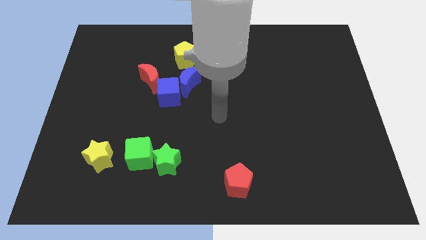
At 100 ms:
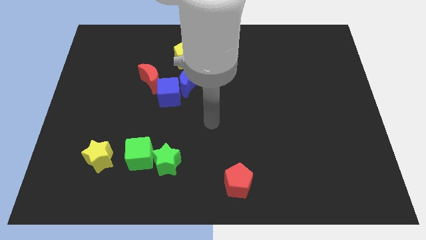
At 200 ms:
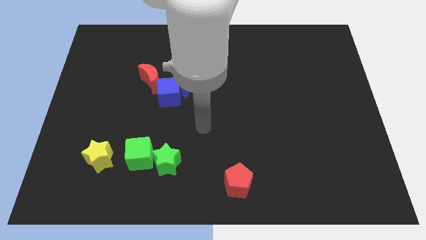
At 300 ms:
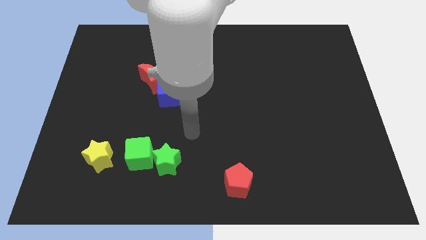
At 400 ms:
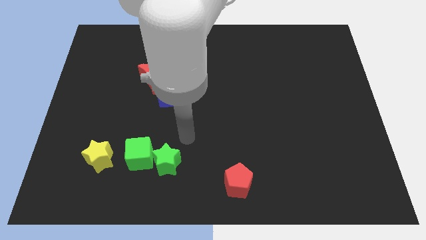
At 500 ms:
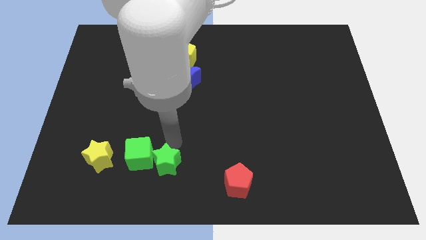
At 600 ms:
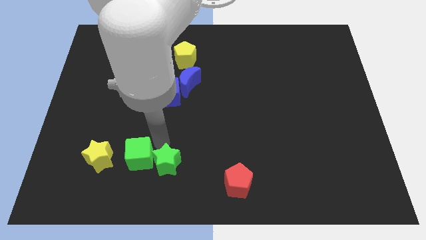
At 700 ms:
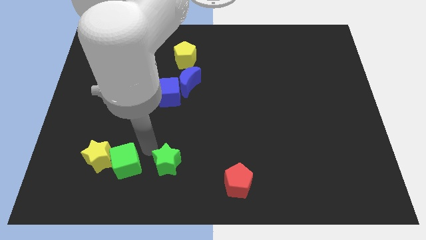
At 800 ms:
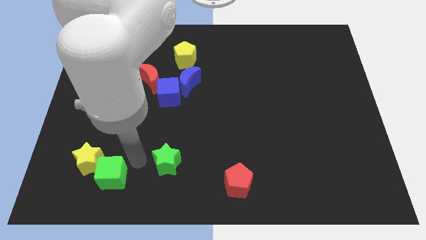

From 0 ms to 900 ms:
move the green star away from the green cube

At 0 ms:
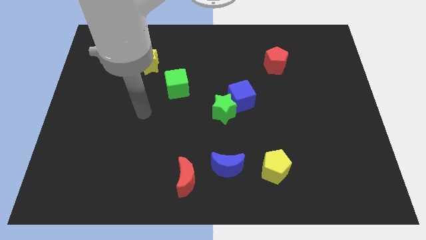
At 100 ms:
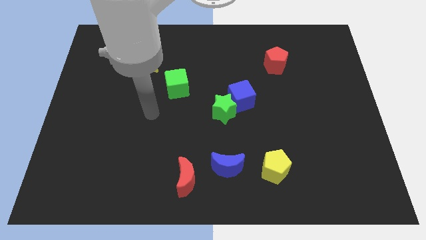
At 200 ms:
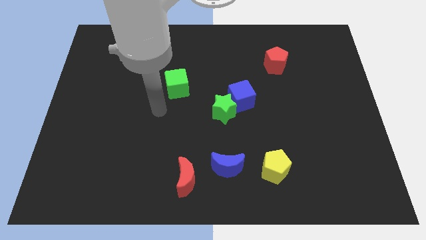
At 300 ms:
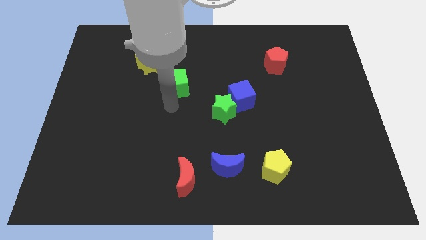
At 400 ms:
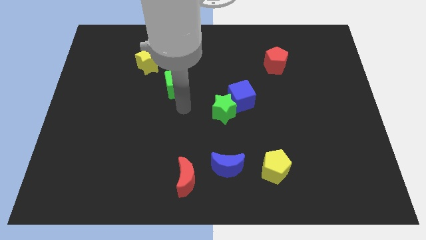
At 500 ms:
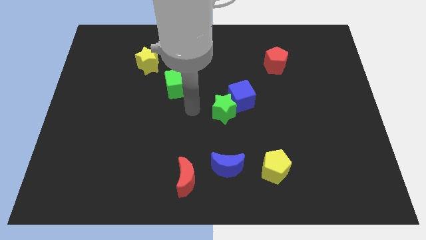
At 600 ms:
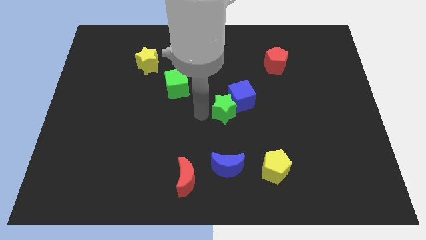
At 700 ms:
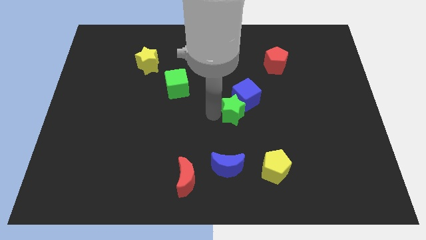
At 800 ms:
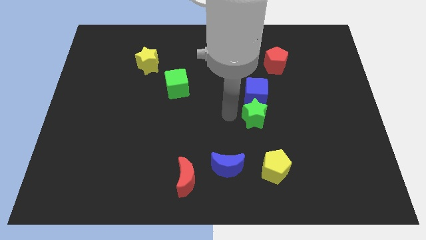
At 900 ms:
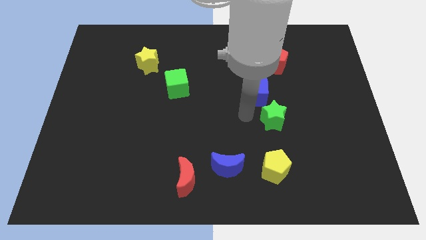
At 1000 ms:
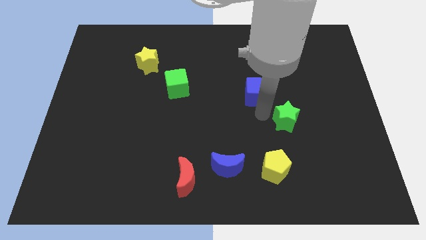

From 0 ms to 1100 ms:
move the blue cube away from the green star

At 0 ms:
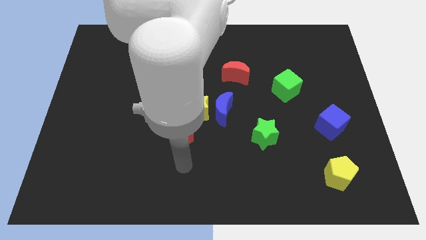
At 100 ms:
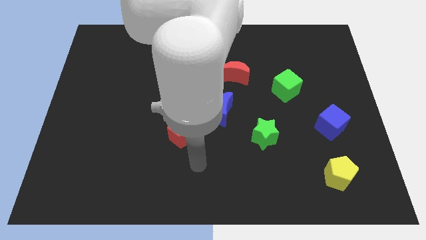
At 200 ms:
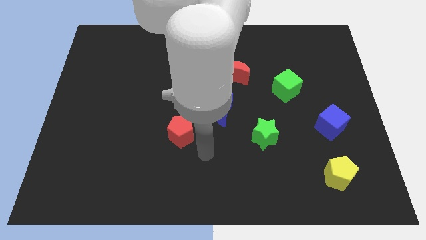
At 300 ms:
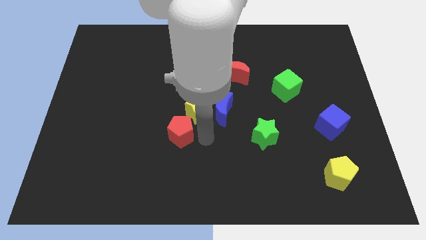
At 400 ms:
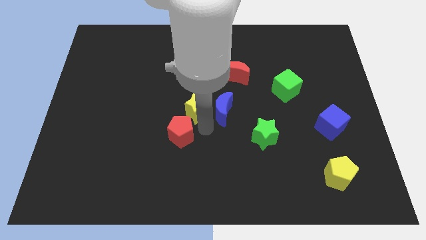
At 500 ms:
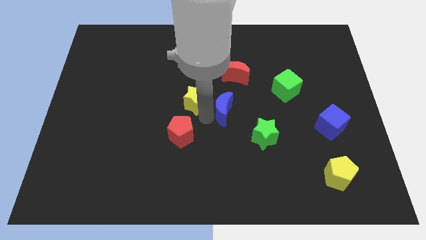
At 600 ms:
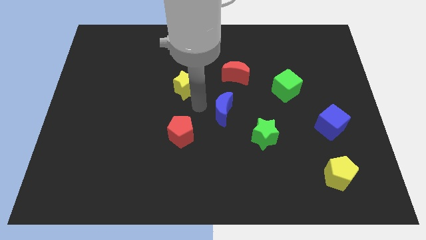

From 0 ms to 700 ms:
move the blue moon away from the yellow star

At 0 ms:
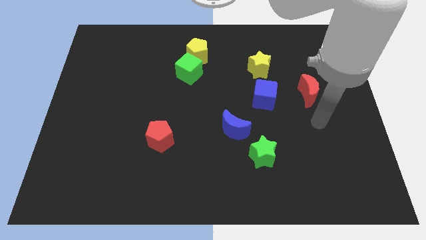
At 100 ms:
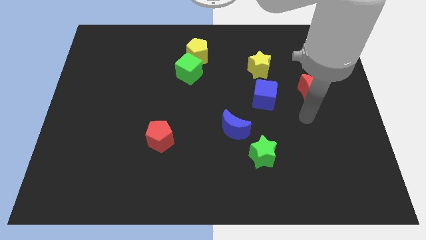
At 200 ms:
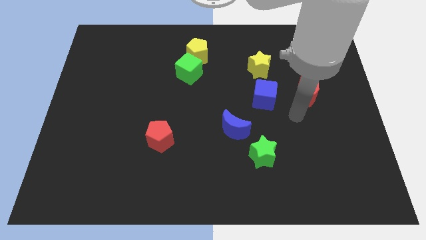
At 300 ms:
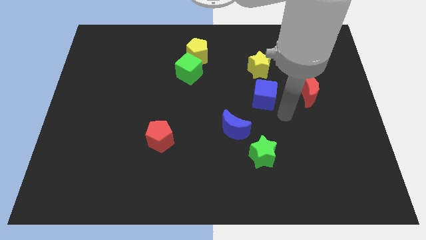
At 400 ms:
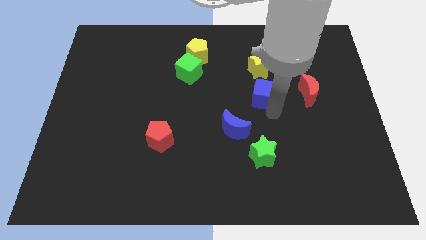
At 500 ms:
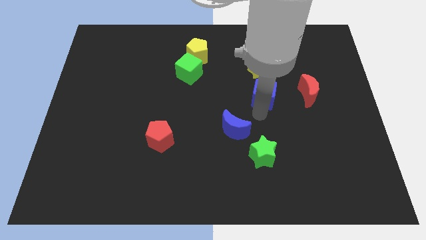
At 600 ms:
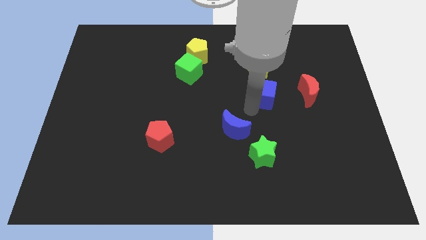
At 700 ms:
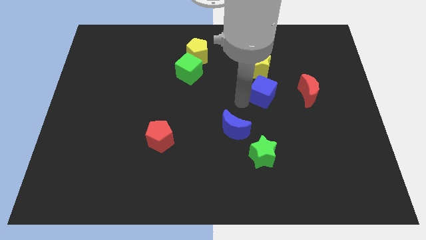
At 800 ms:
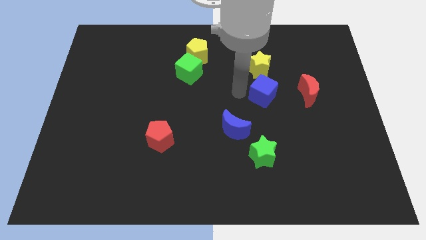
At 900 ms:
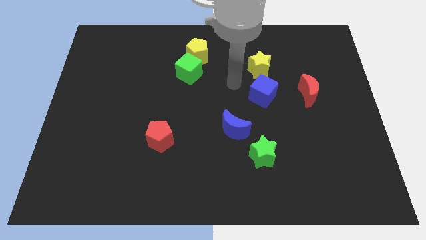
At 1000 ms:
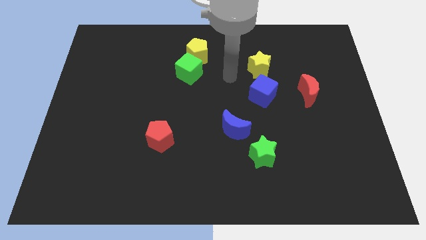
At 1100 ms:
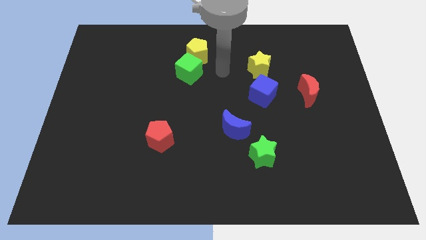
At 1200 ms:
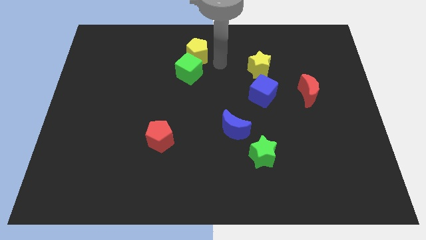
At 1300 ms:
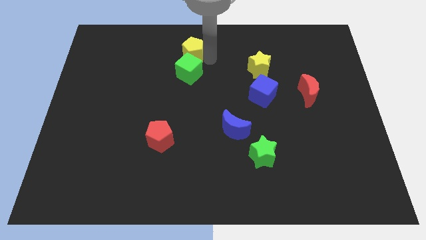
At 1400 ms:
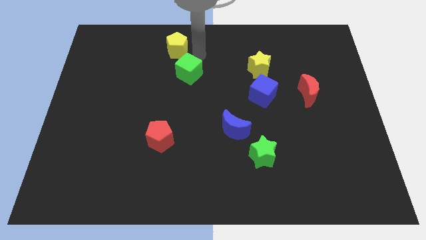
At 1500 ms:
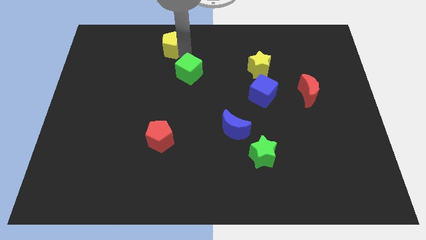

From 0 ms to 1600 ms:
move the green cube away from the yellow pentagon

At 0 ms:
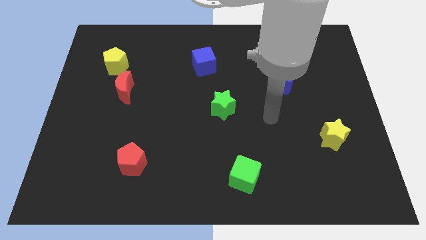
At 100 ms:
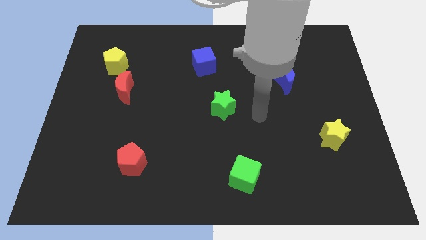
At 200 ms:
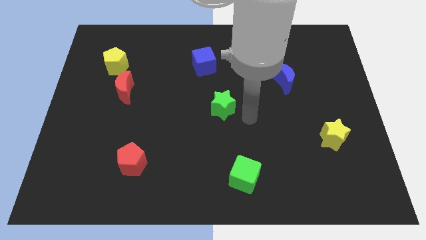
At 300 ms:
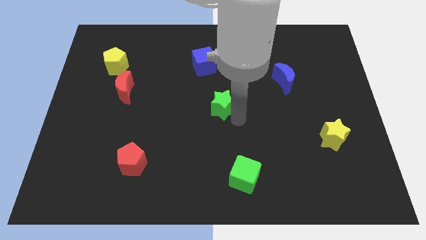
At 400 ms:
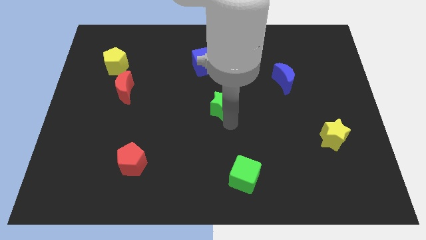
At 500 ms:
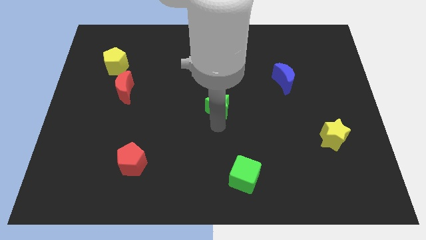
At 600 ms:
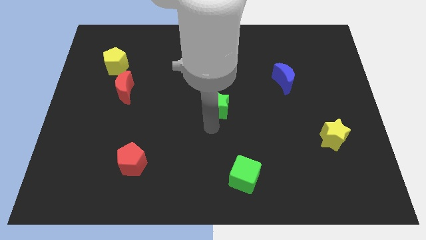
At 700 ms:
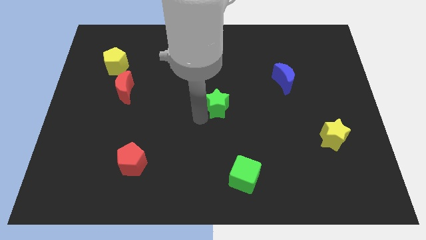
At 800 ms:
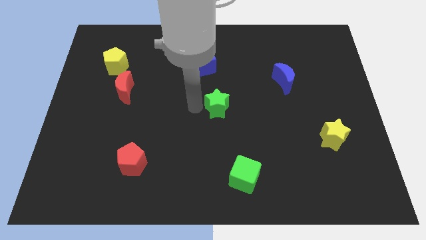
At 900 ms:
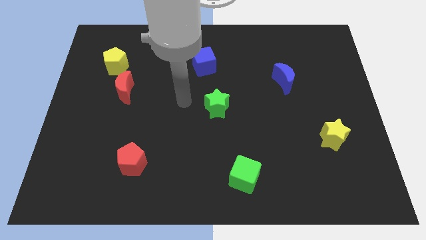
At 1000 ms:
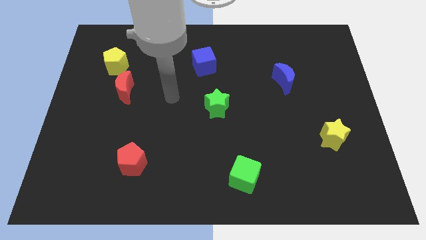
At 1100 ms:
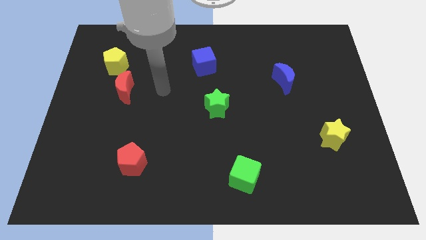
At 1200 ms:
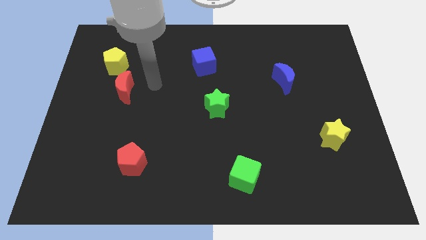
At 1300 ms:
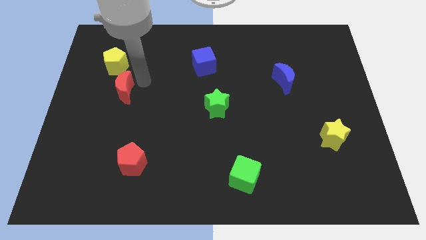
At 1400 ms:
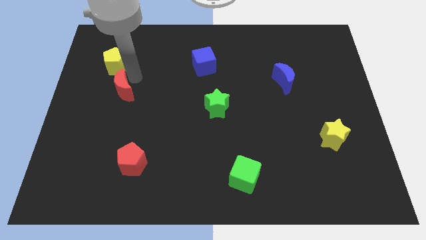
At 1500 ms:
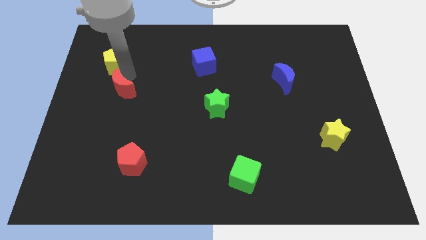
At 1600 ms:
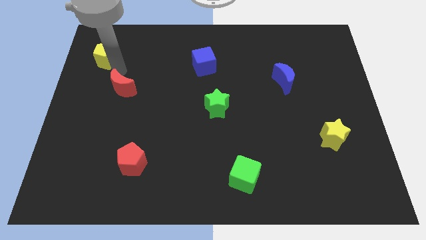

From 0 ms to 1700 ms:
move the red moon away from the yellow pentagon

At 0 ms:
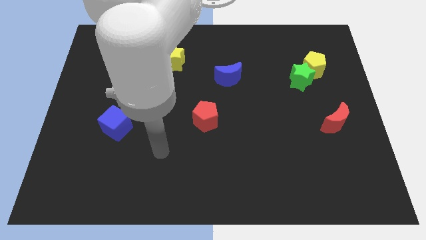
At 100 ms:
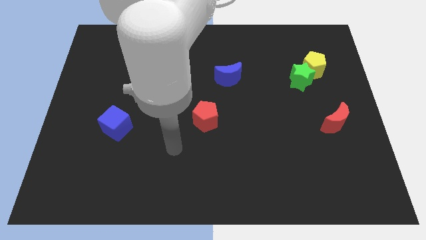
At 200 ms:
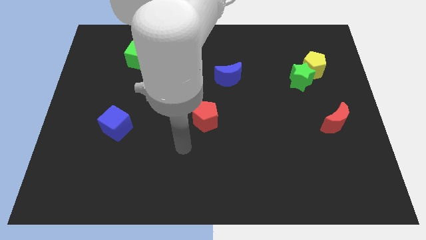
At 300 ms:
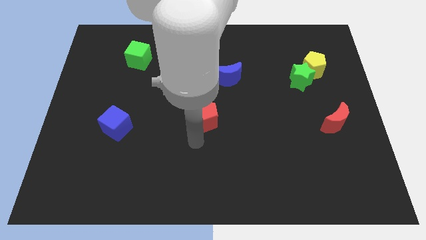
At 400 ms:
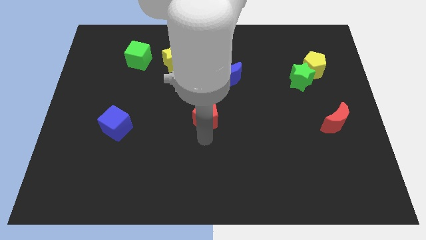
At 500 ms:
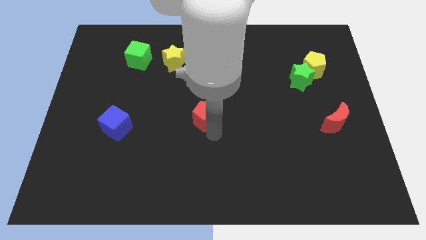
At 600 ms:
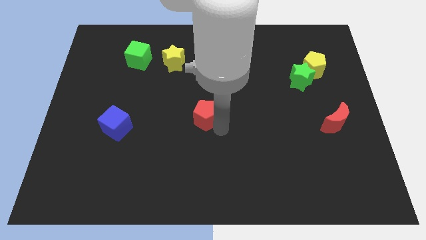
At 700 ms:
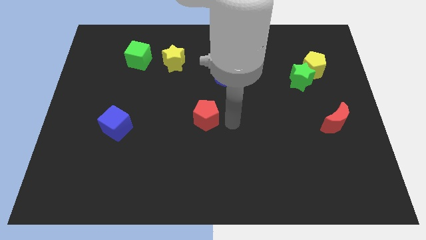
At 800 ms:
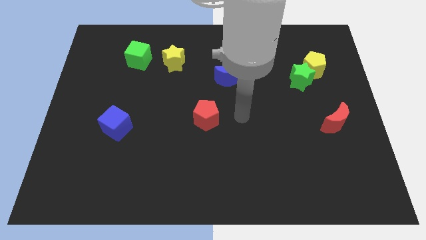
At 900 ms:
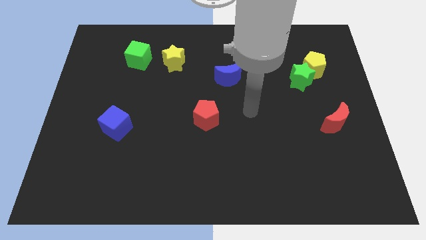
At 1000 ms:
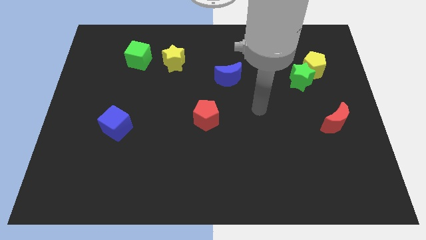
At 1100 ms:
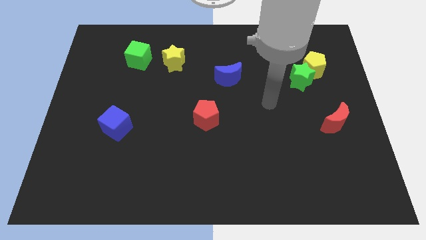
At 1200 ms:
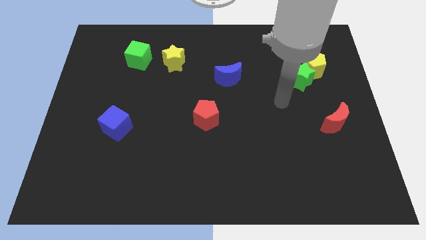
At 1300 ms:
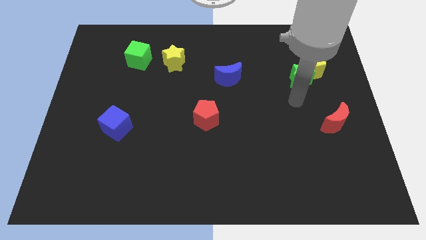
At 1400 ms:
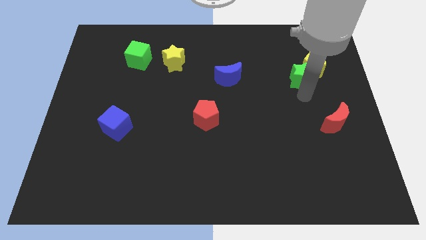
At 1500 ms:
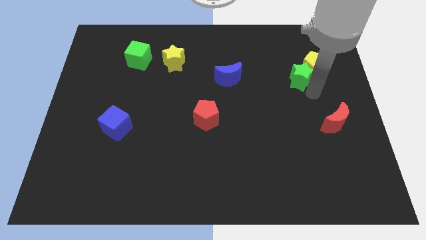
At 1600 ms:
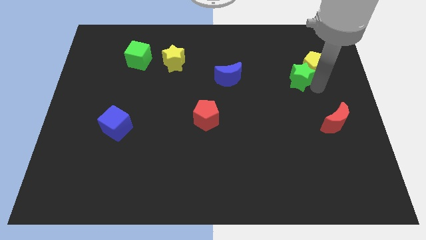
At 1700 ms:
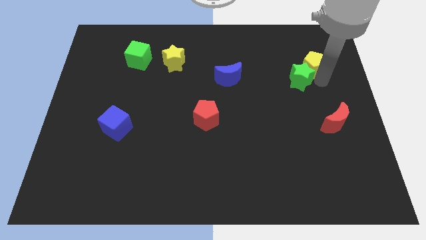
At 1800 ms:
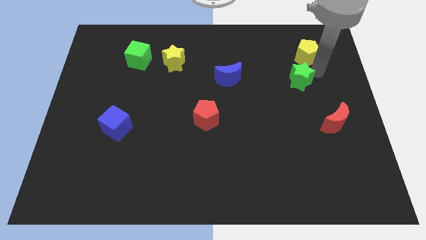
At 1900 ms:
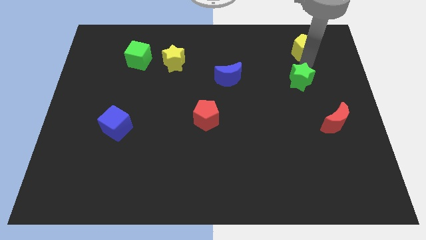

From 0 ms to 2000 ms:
pull the green star apart from the yellow pentagon

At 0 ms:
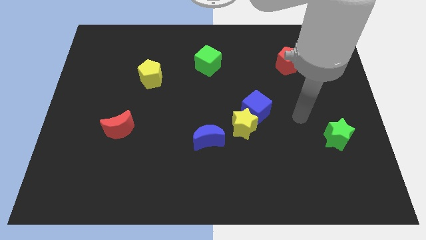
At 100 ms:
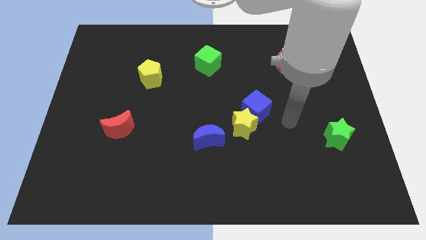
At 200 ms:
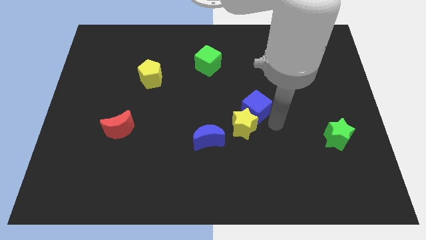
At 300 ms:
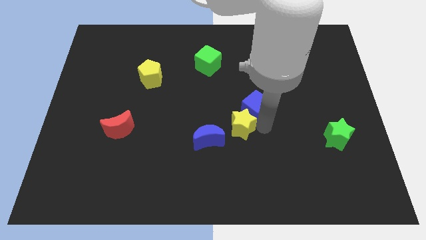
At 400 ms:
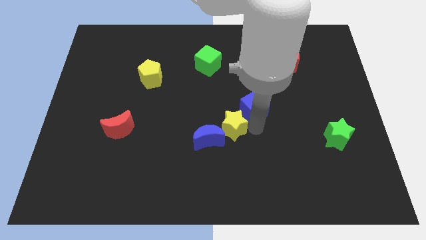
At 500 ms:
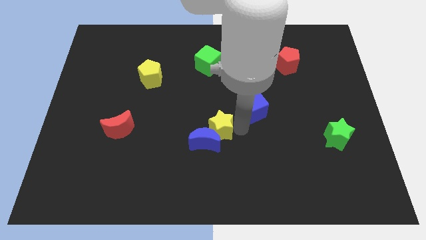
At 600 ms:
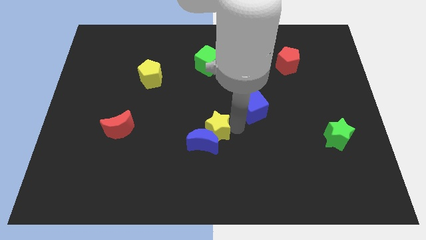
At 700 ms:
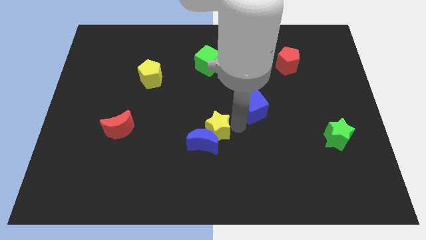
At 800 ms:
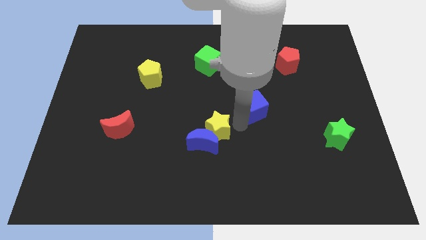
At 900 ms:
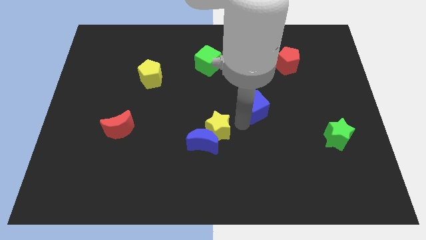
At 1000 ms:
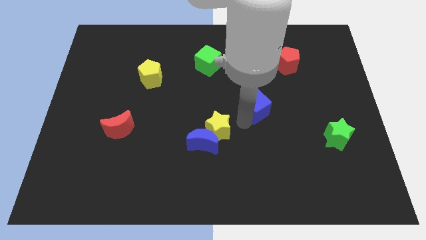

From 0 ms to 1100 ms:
separate the blue cube from the yellow star

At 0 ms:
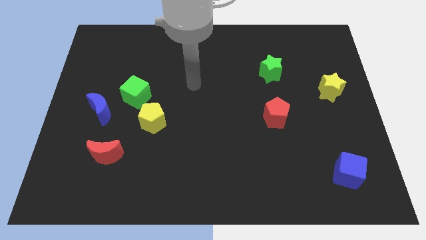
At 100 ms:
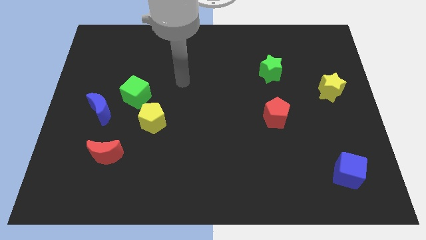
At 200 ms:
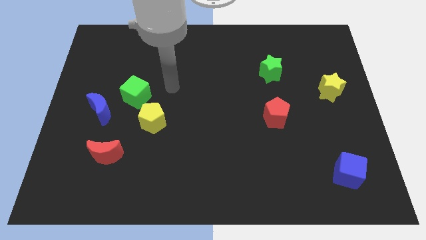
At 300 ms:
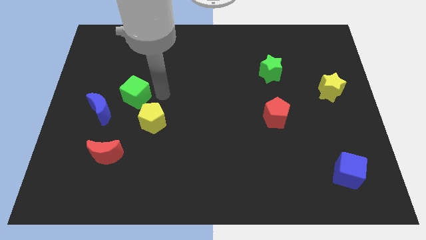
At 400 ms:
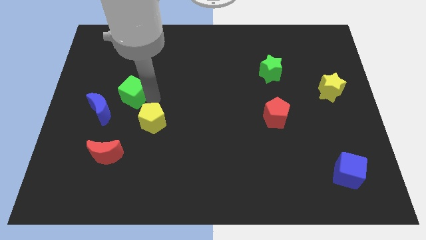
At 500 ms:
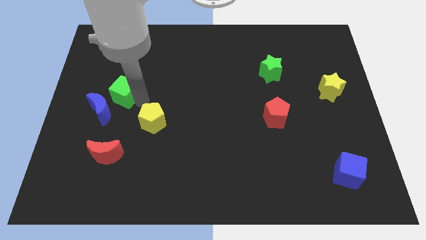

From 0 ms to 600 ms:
separate the yellow pentagon from the green cube
